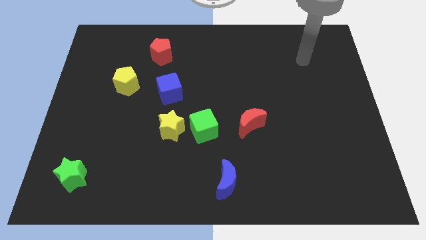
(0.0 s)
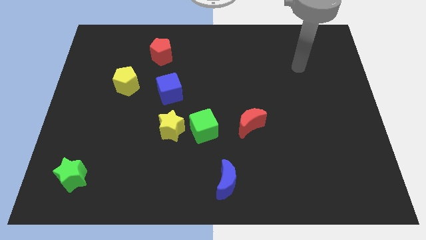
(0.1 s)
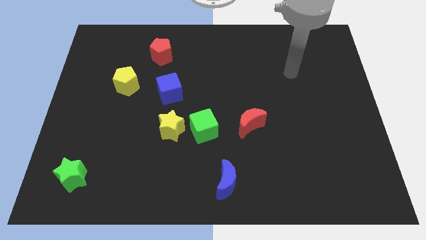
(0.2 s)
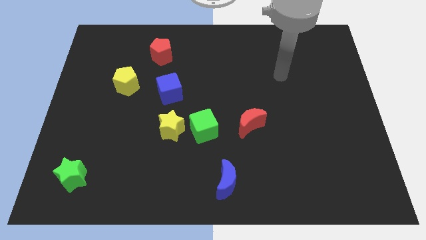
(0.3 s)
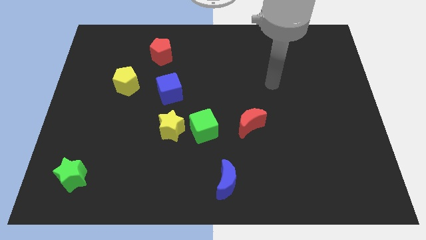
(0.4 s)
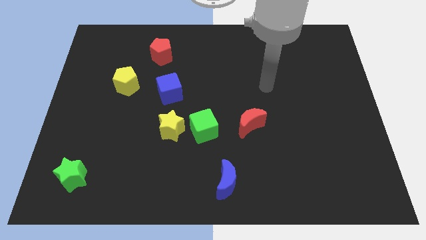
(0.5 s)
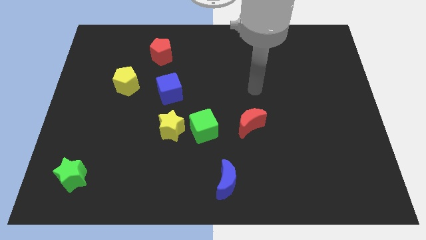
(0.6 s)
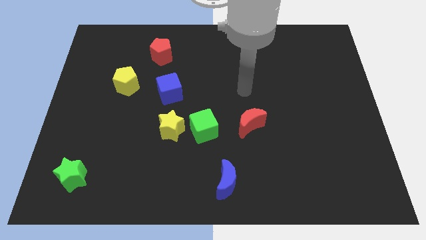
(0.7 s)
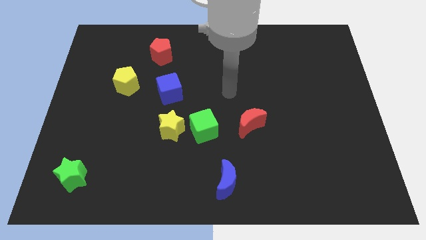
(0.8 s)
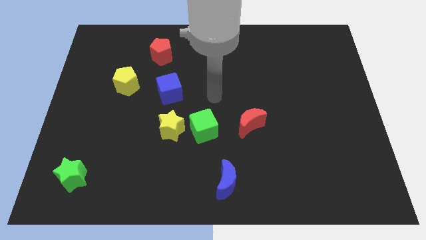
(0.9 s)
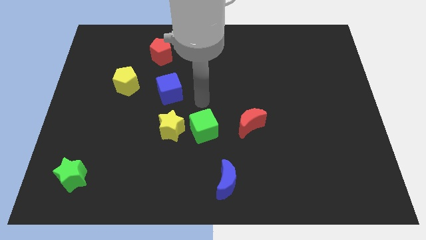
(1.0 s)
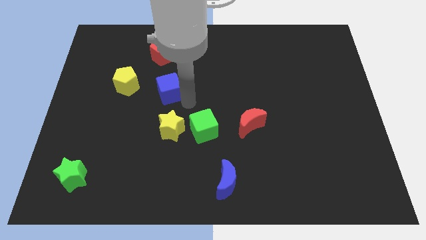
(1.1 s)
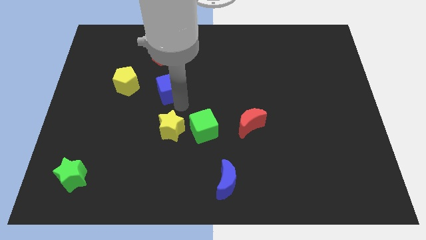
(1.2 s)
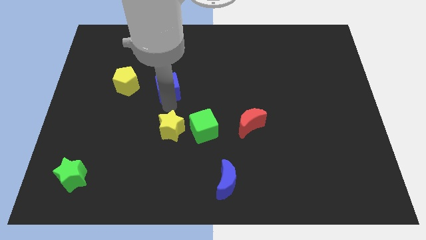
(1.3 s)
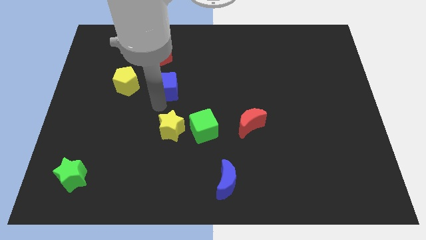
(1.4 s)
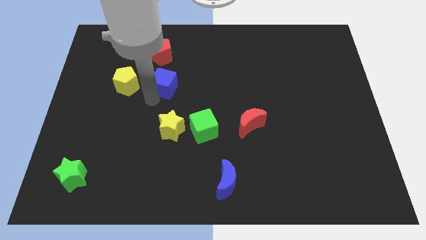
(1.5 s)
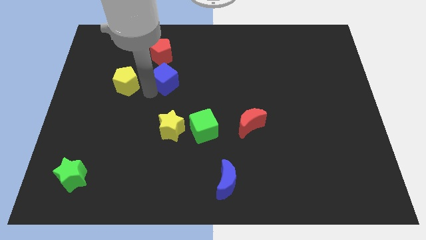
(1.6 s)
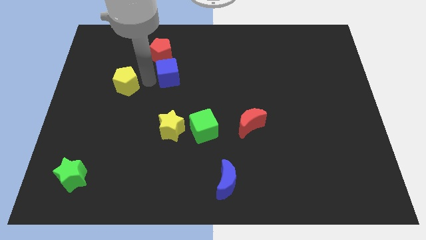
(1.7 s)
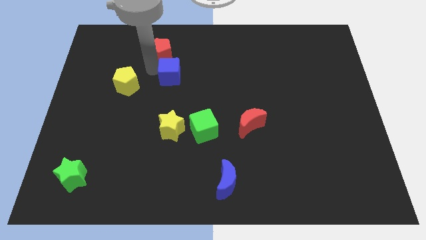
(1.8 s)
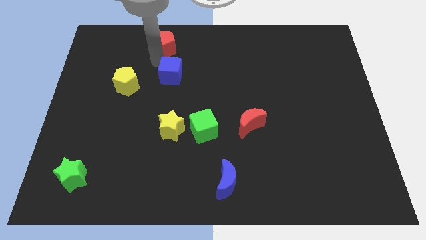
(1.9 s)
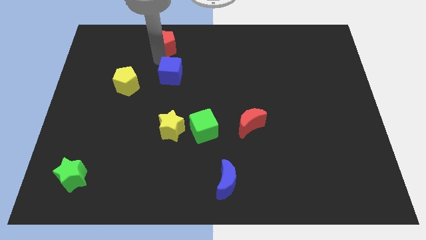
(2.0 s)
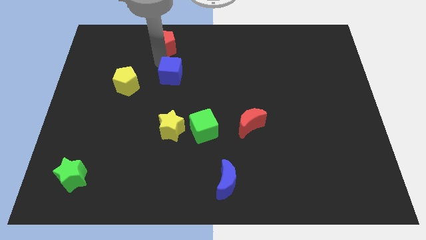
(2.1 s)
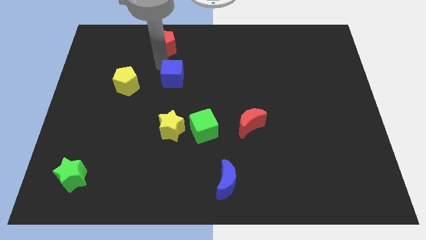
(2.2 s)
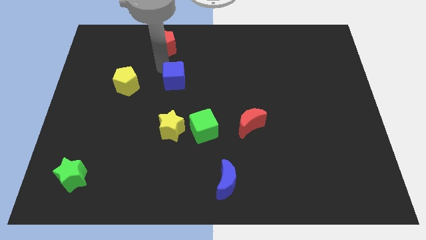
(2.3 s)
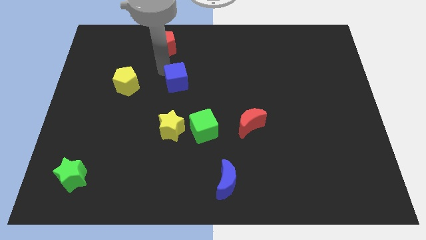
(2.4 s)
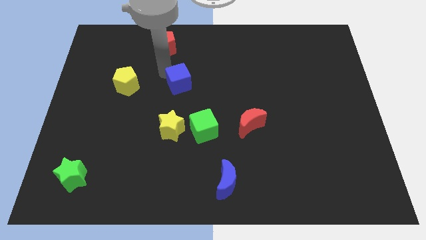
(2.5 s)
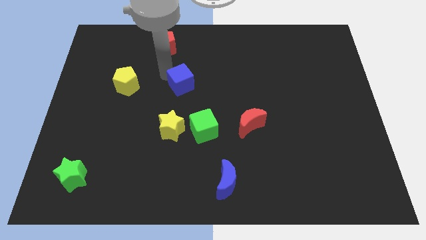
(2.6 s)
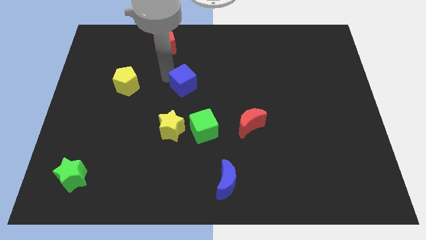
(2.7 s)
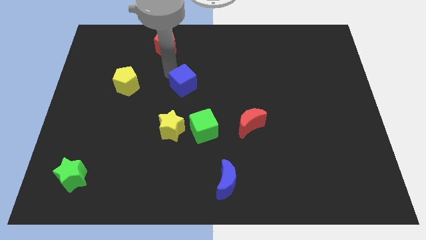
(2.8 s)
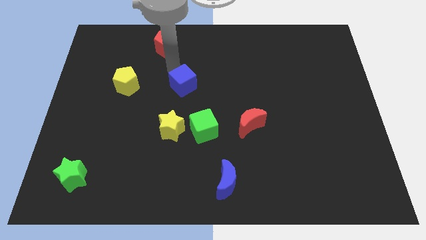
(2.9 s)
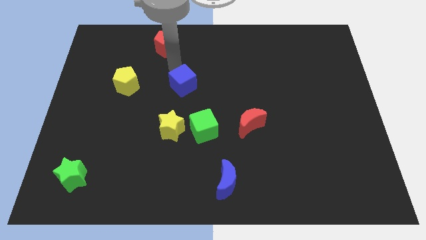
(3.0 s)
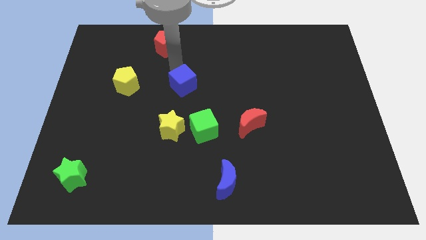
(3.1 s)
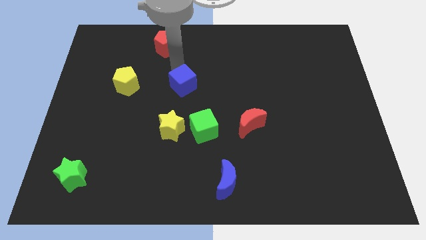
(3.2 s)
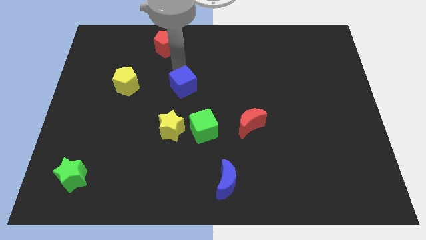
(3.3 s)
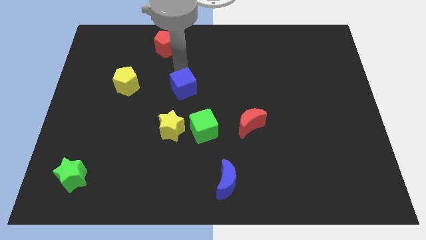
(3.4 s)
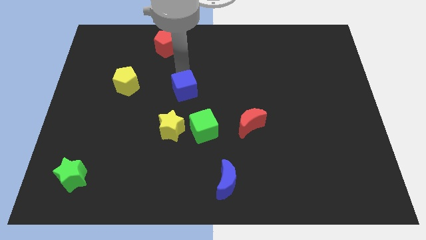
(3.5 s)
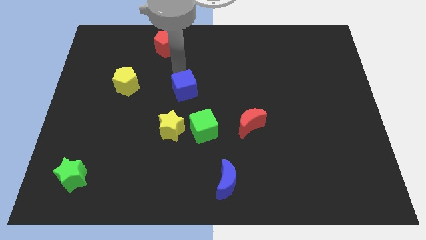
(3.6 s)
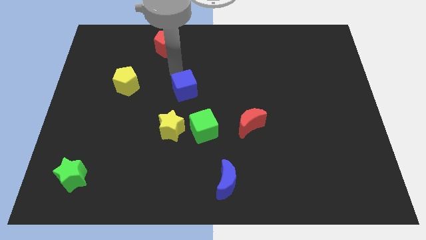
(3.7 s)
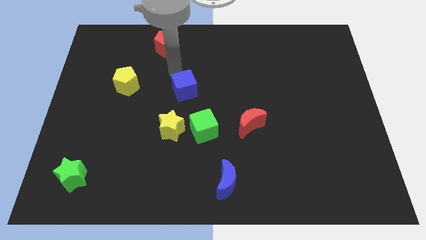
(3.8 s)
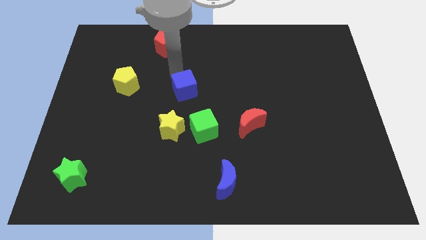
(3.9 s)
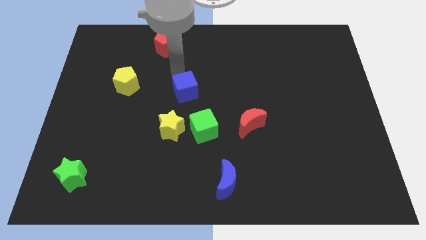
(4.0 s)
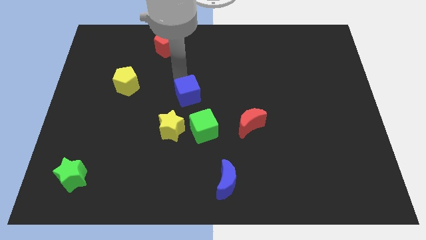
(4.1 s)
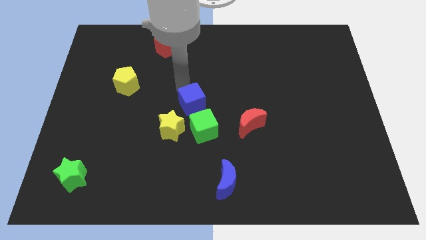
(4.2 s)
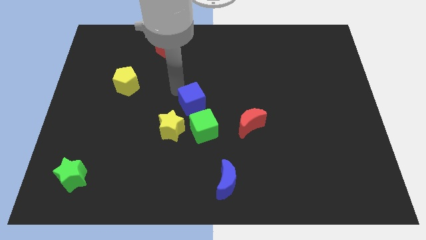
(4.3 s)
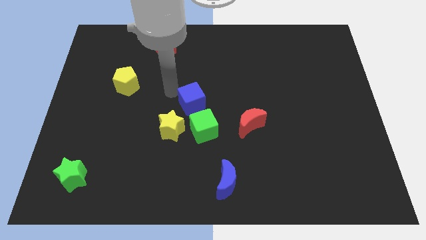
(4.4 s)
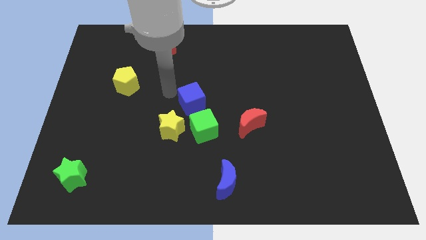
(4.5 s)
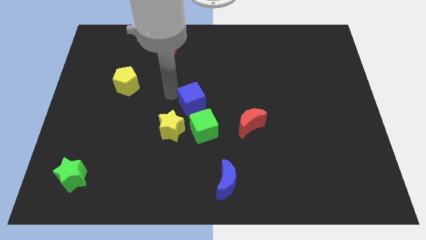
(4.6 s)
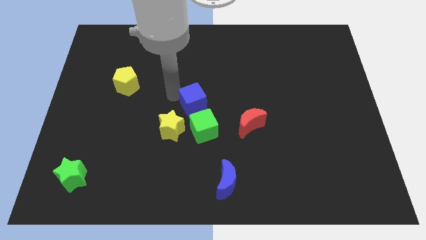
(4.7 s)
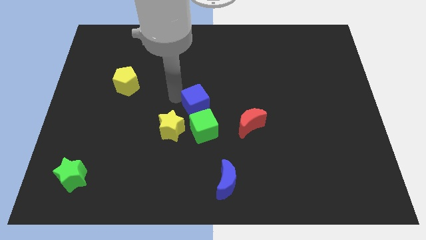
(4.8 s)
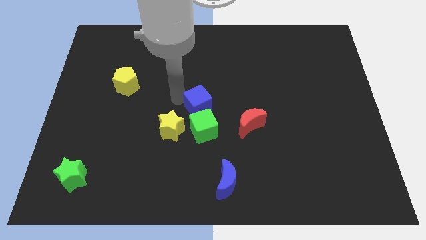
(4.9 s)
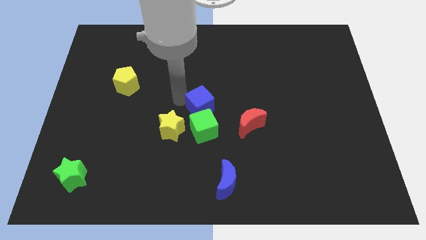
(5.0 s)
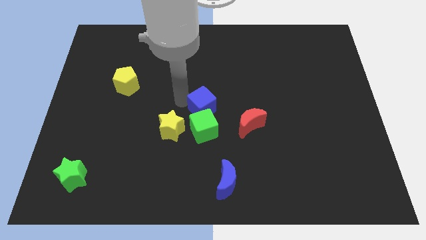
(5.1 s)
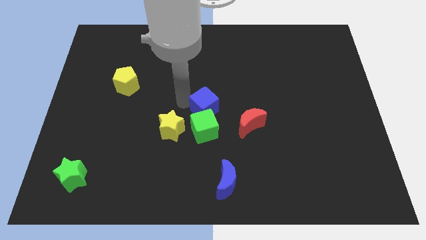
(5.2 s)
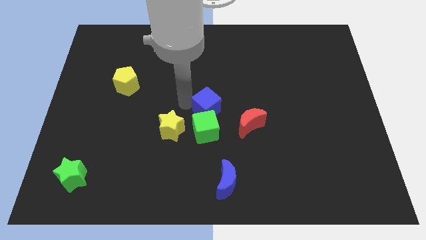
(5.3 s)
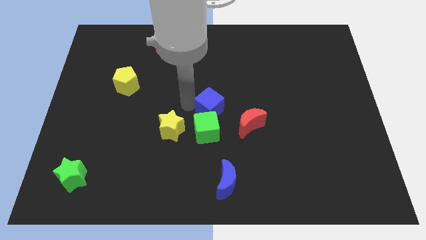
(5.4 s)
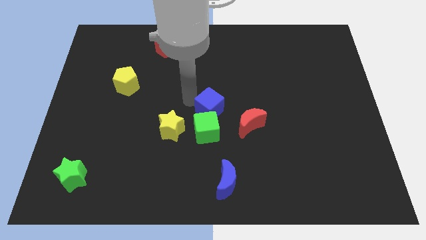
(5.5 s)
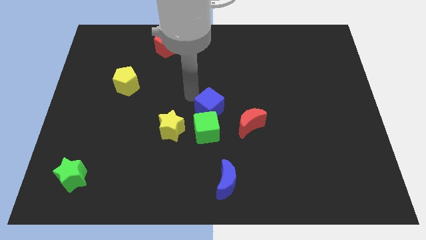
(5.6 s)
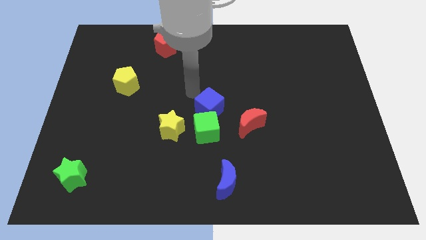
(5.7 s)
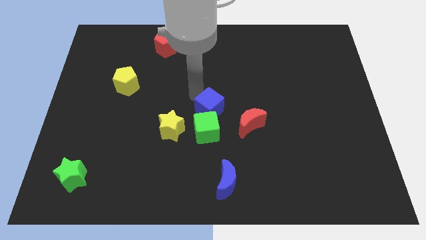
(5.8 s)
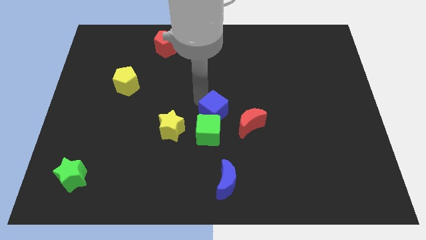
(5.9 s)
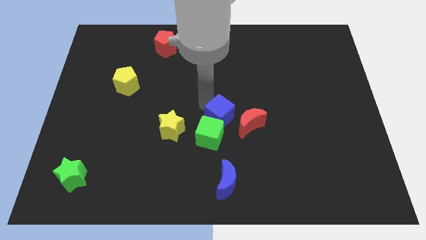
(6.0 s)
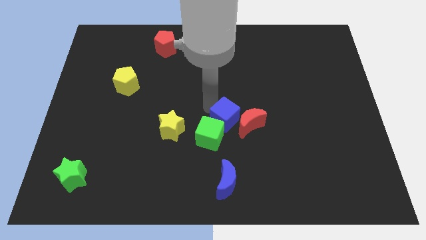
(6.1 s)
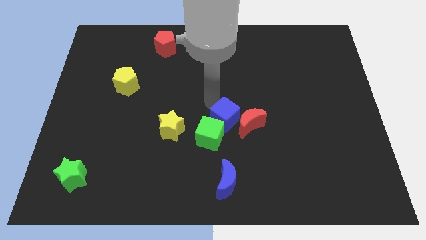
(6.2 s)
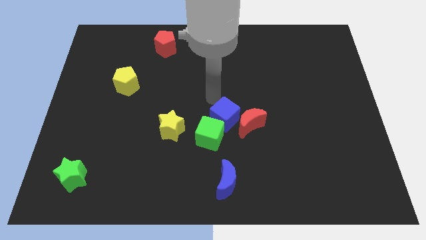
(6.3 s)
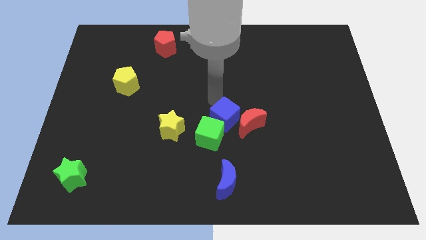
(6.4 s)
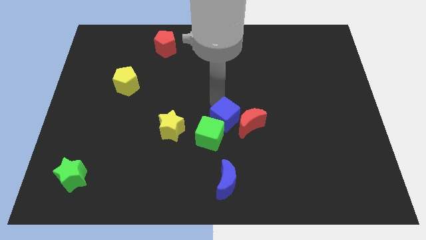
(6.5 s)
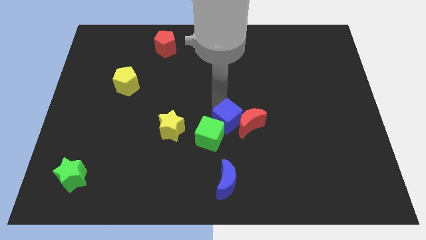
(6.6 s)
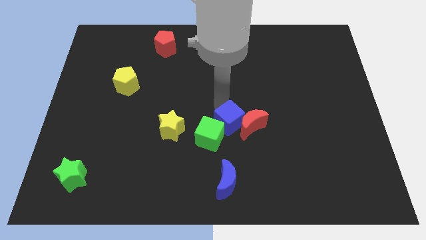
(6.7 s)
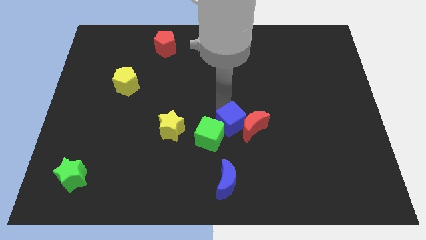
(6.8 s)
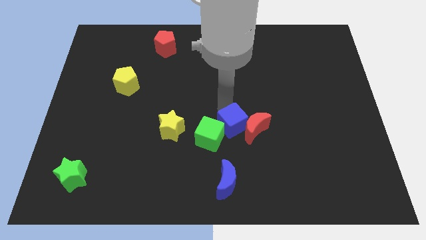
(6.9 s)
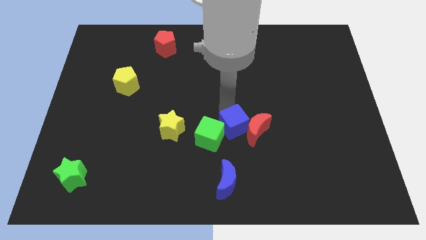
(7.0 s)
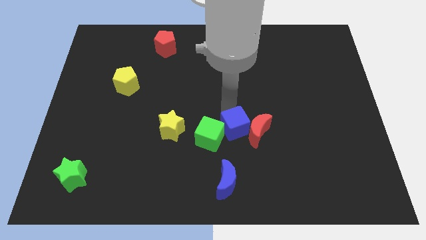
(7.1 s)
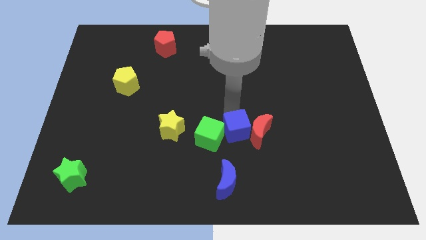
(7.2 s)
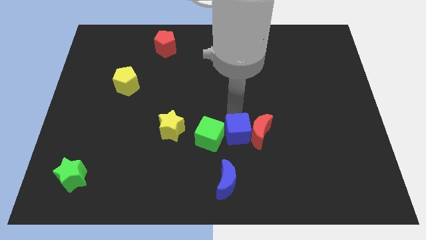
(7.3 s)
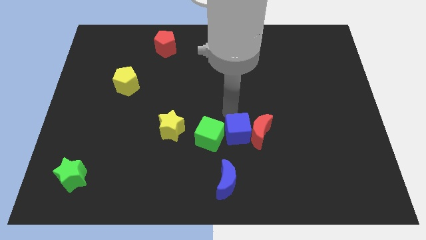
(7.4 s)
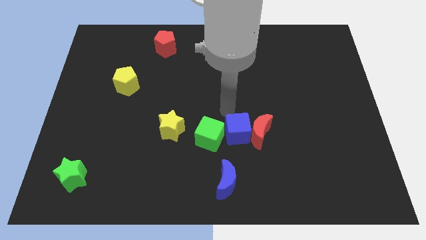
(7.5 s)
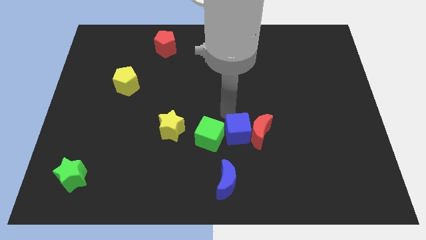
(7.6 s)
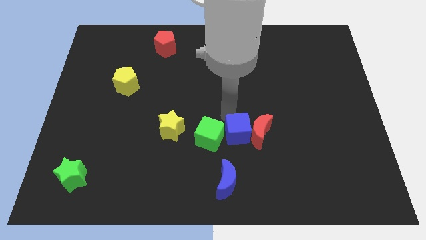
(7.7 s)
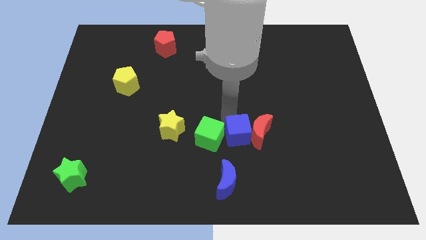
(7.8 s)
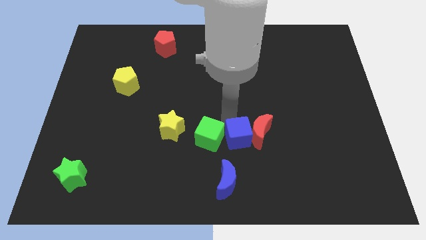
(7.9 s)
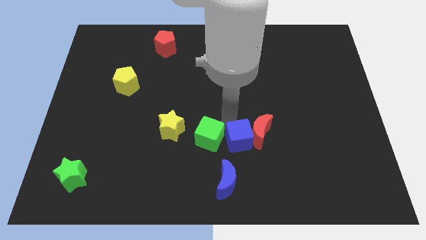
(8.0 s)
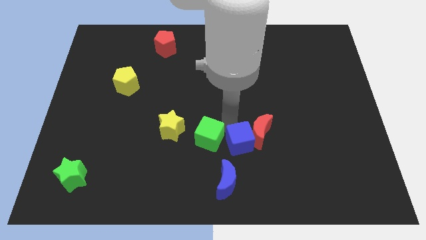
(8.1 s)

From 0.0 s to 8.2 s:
move the blue cube to the top right of the blue moon
